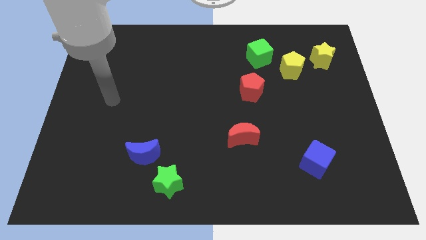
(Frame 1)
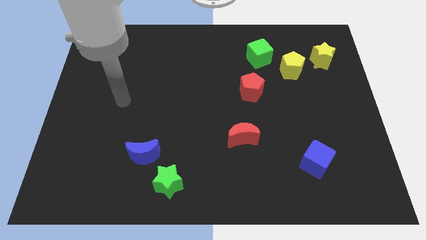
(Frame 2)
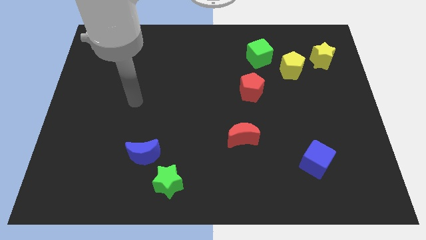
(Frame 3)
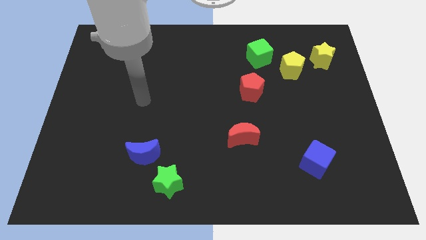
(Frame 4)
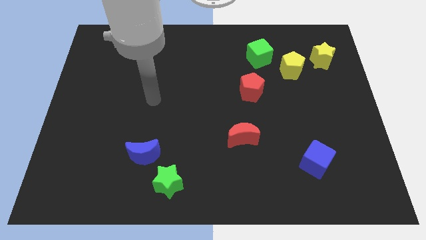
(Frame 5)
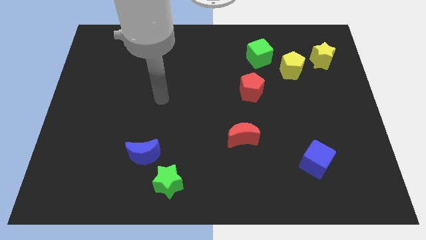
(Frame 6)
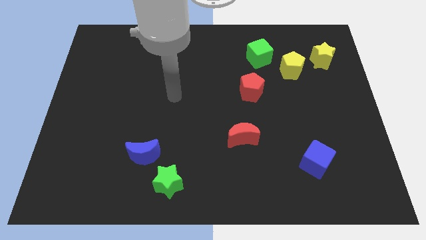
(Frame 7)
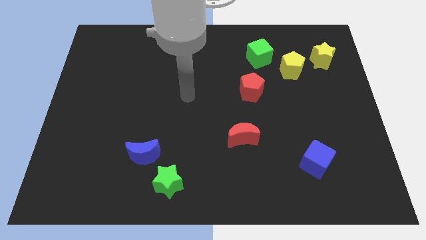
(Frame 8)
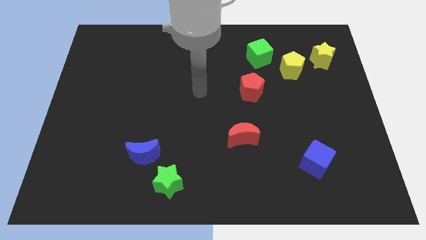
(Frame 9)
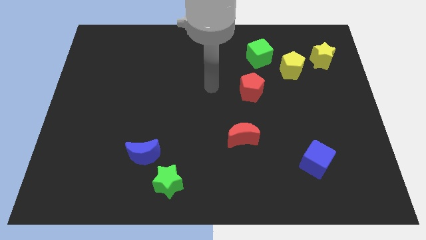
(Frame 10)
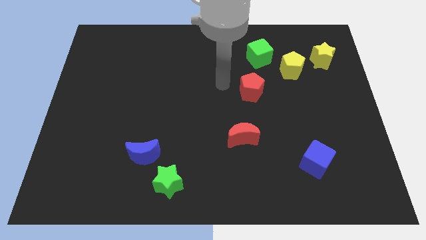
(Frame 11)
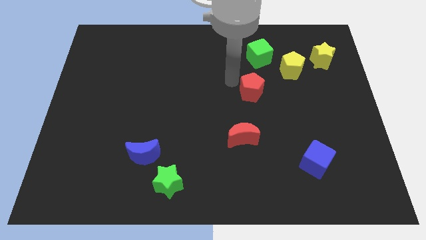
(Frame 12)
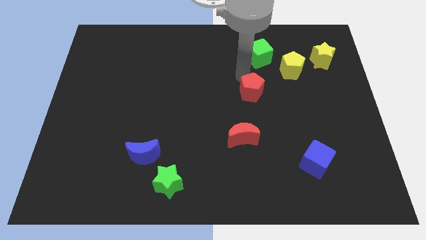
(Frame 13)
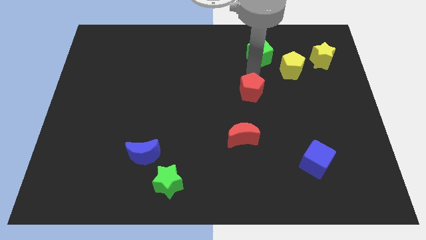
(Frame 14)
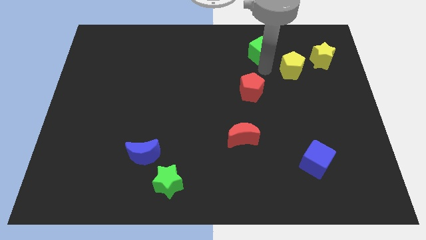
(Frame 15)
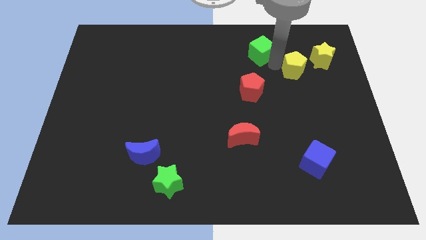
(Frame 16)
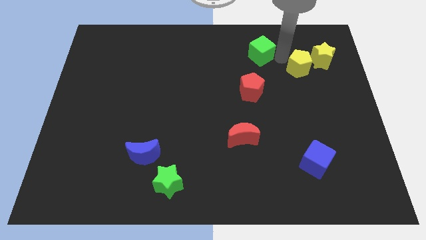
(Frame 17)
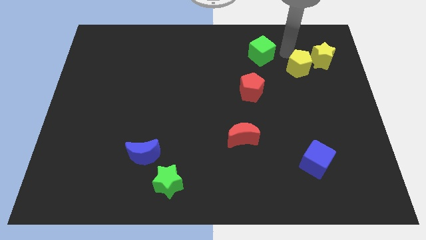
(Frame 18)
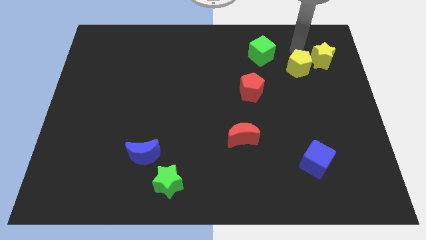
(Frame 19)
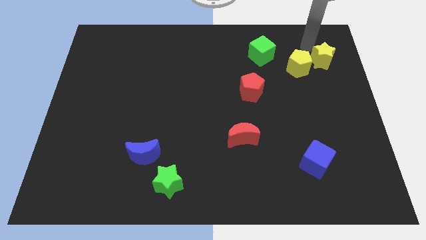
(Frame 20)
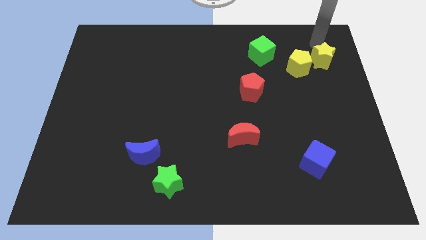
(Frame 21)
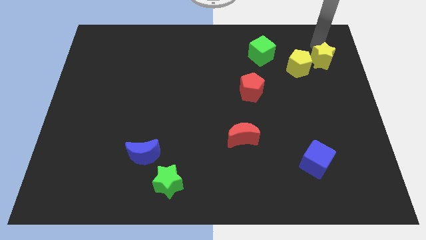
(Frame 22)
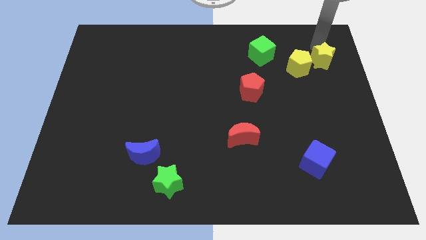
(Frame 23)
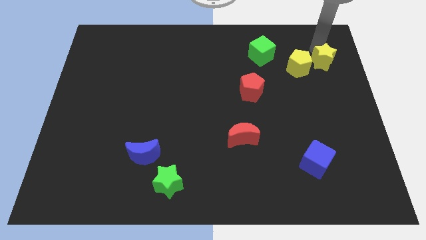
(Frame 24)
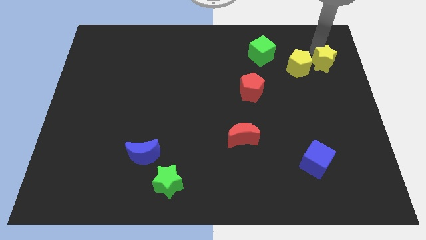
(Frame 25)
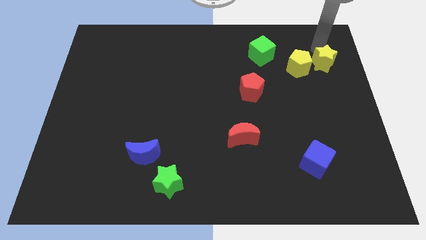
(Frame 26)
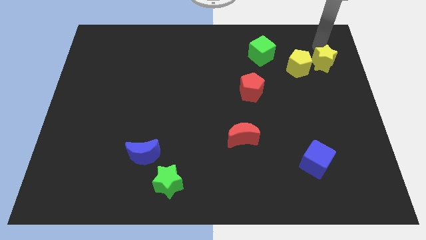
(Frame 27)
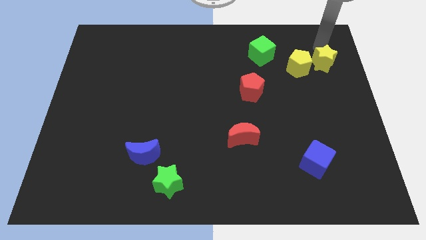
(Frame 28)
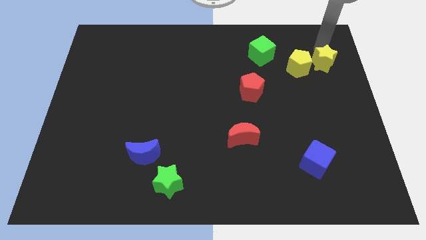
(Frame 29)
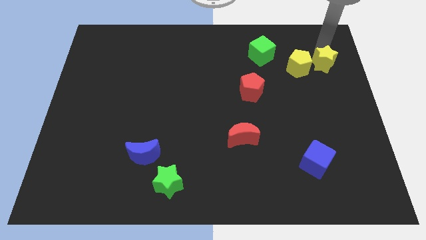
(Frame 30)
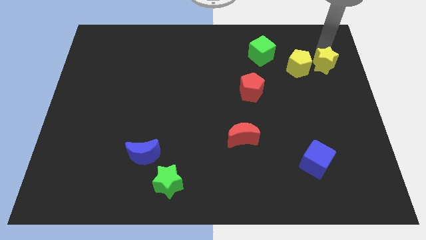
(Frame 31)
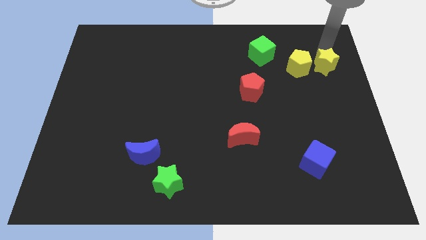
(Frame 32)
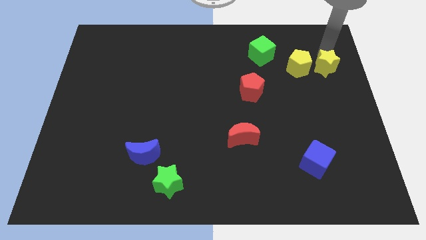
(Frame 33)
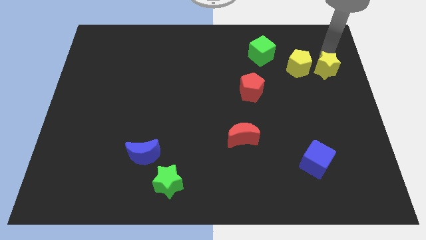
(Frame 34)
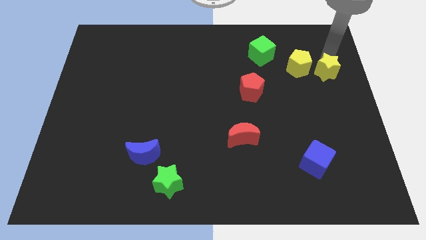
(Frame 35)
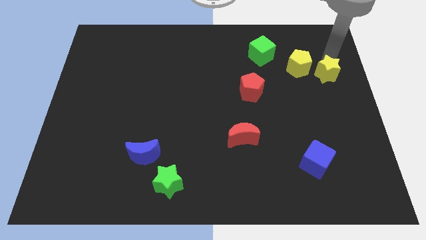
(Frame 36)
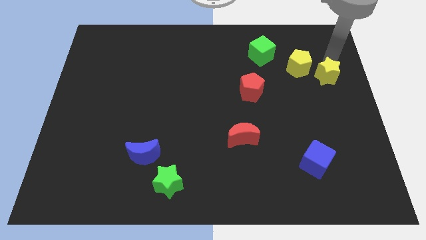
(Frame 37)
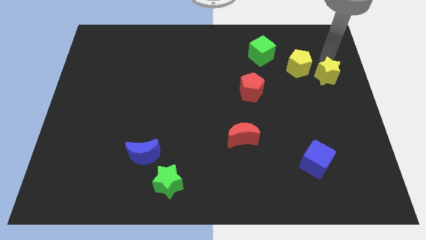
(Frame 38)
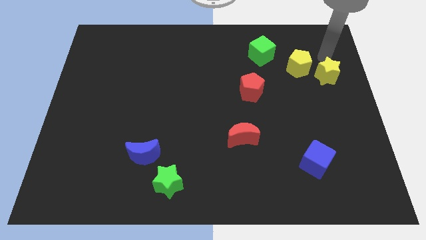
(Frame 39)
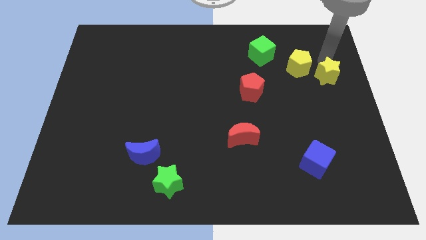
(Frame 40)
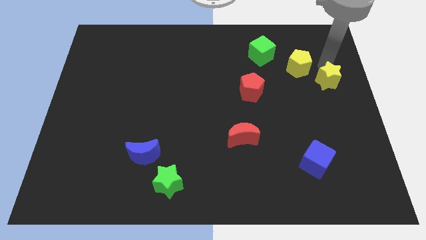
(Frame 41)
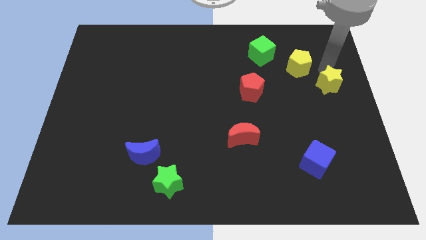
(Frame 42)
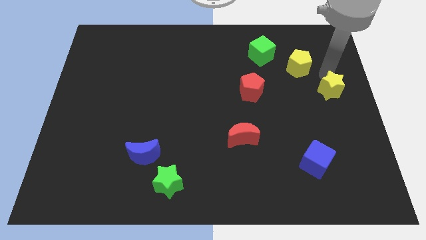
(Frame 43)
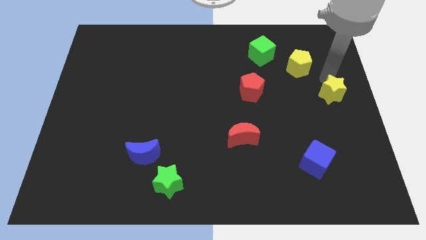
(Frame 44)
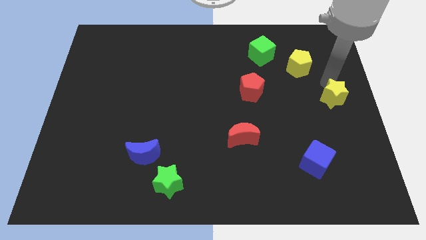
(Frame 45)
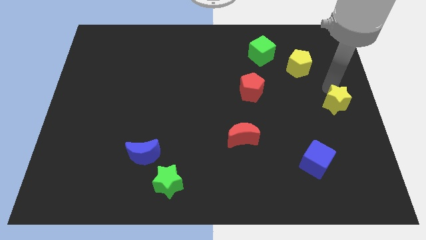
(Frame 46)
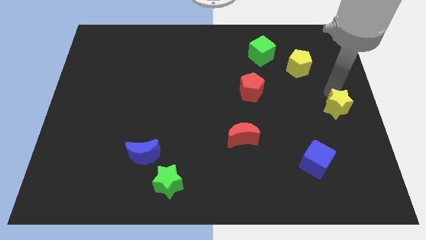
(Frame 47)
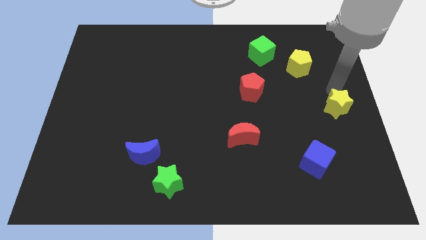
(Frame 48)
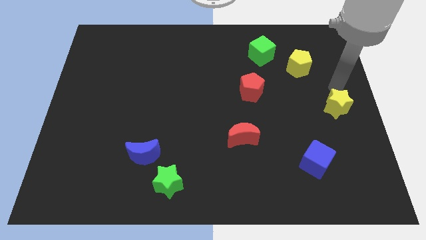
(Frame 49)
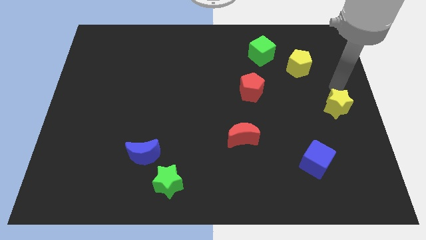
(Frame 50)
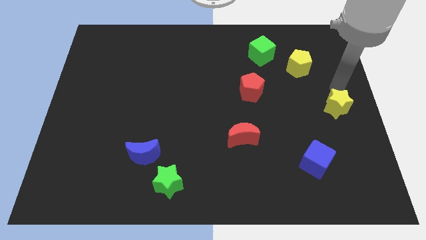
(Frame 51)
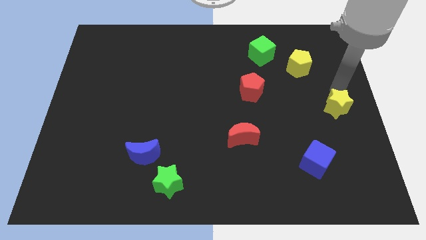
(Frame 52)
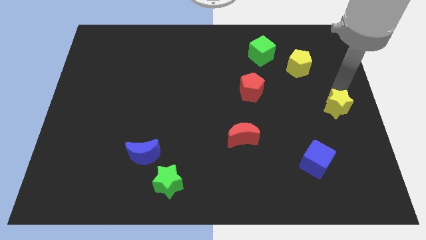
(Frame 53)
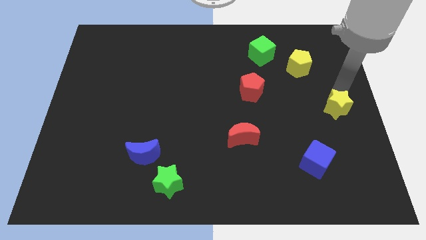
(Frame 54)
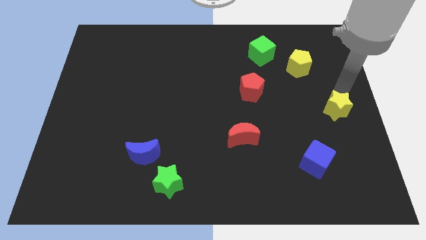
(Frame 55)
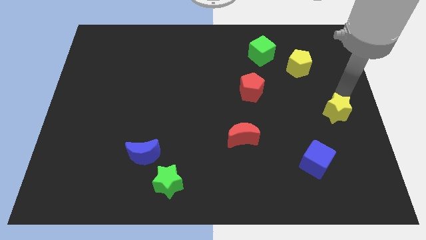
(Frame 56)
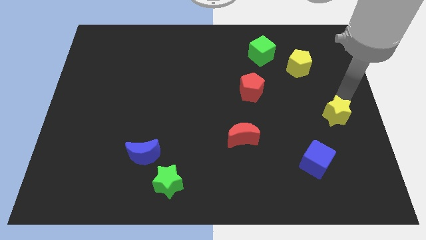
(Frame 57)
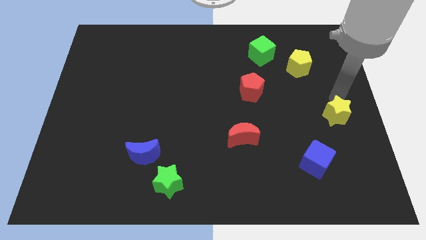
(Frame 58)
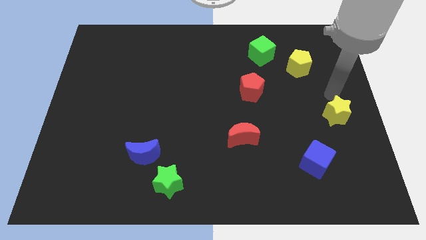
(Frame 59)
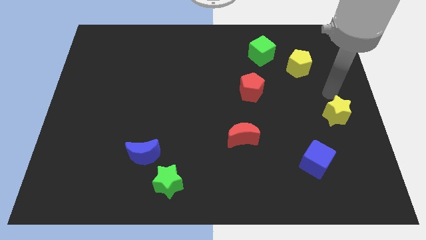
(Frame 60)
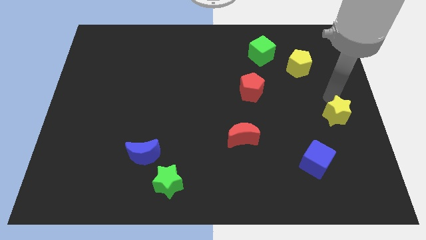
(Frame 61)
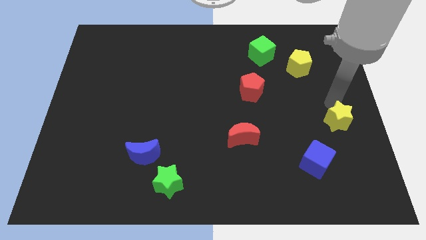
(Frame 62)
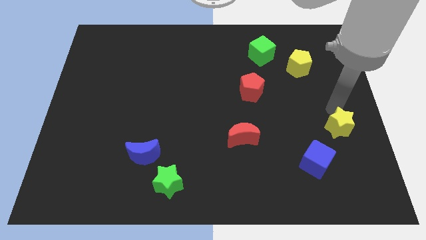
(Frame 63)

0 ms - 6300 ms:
move the yellow star down

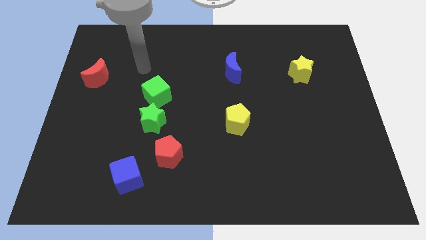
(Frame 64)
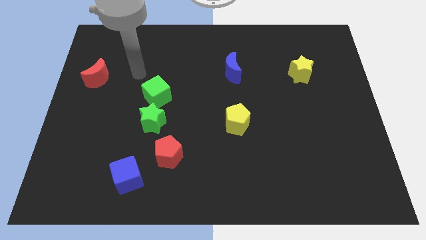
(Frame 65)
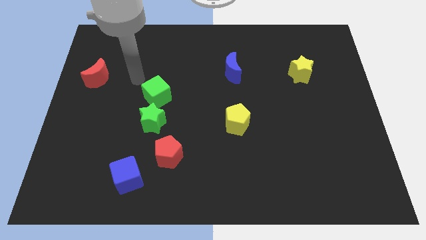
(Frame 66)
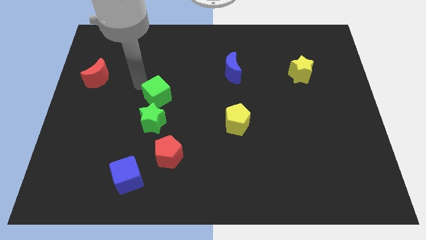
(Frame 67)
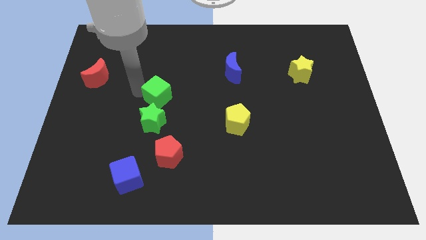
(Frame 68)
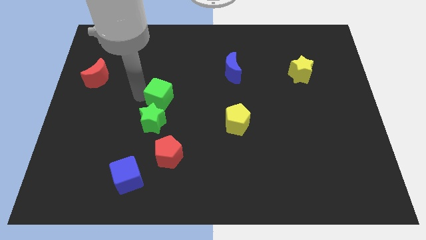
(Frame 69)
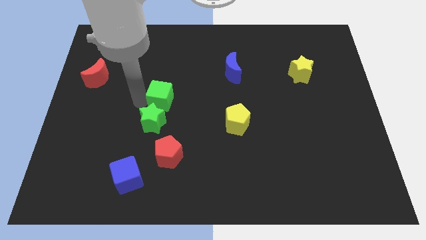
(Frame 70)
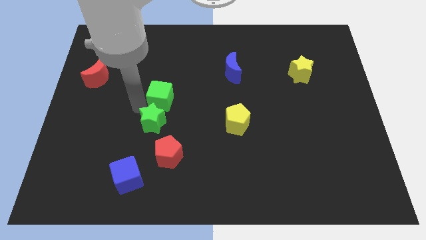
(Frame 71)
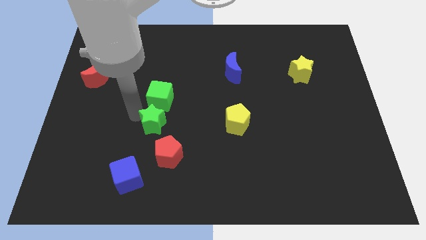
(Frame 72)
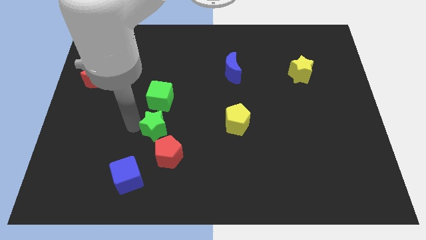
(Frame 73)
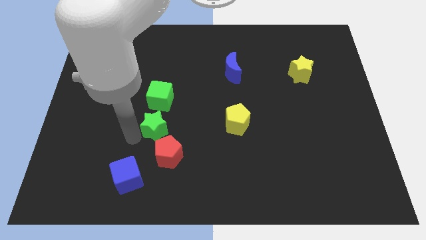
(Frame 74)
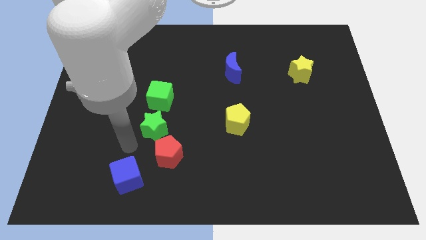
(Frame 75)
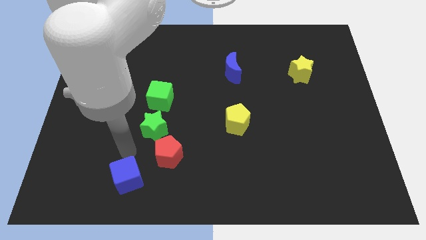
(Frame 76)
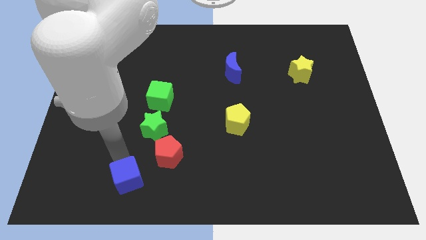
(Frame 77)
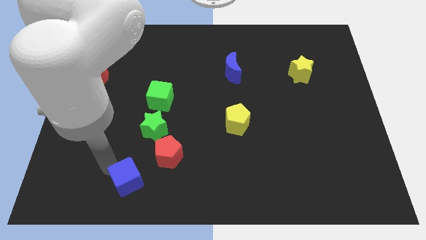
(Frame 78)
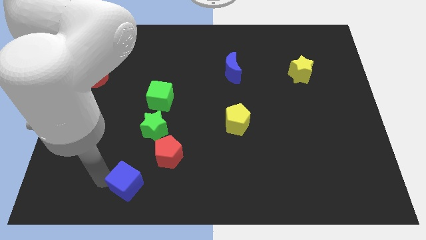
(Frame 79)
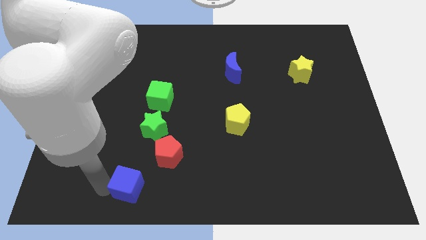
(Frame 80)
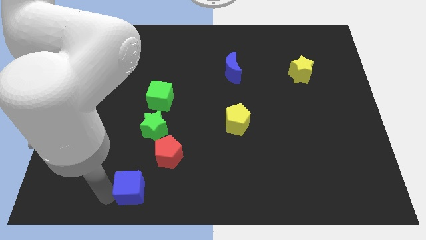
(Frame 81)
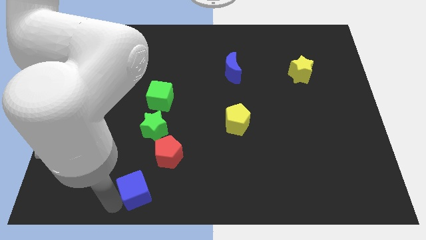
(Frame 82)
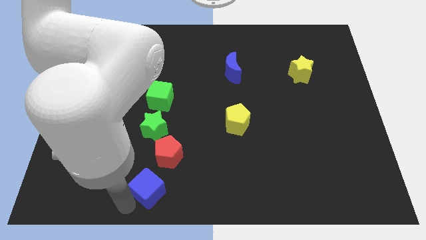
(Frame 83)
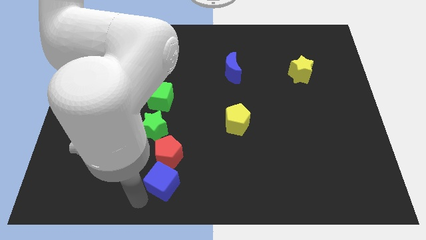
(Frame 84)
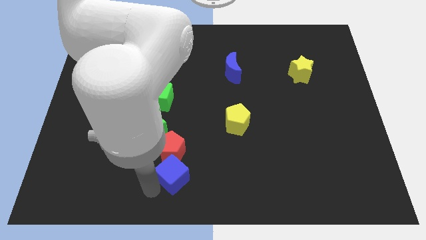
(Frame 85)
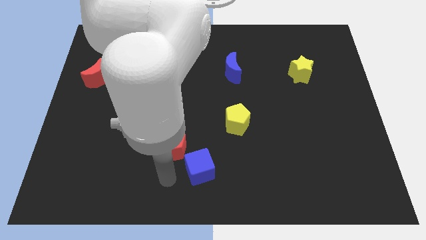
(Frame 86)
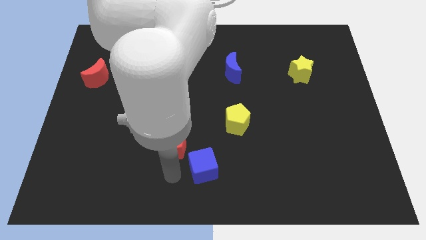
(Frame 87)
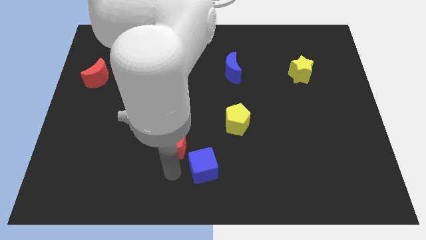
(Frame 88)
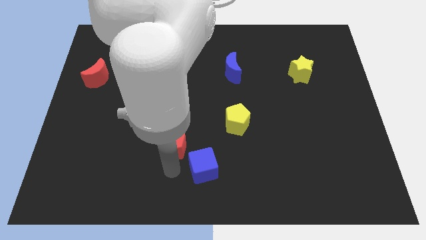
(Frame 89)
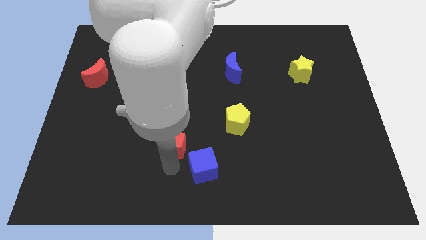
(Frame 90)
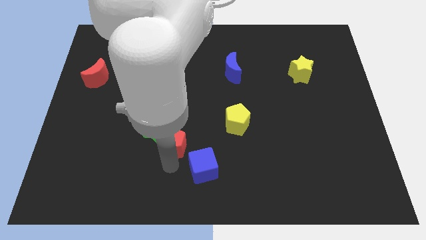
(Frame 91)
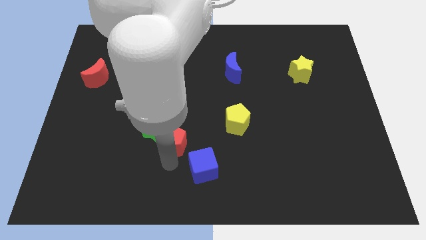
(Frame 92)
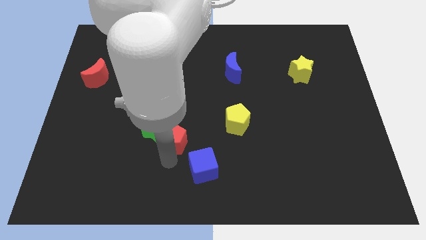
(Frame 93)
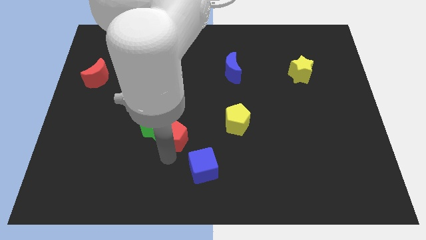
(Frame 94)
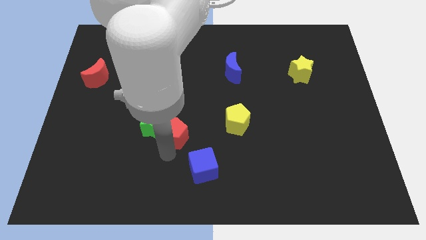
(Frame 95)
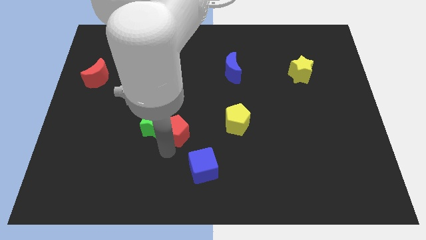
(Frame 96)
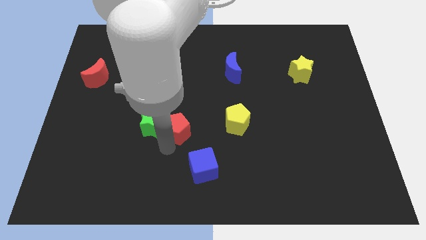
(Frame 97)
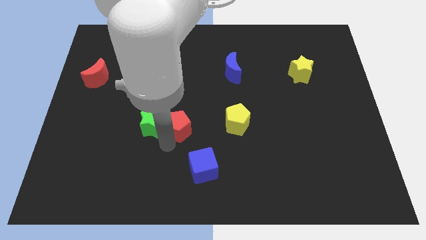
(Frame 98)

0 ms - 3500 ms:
move the red pentagon a little upwards
